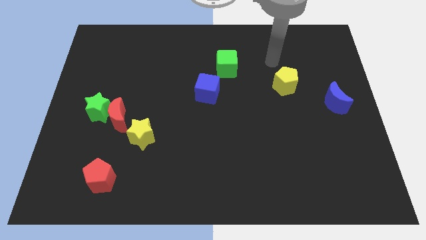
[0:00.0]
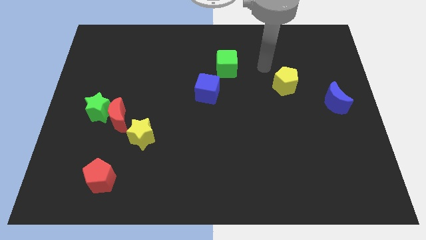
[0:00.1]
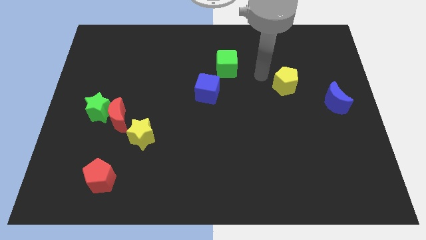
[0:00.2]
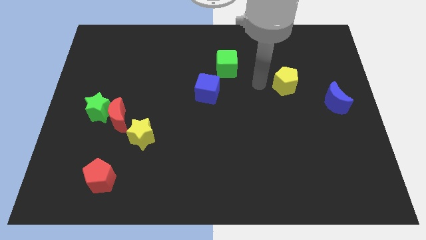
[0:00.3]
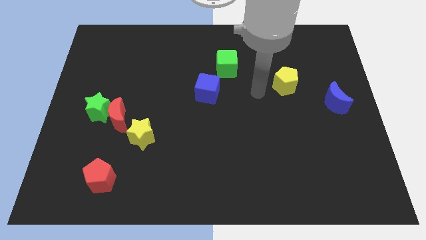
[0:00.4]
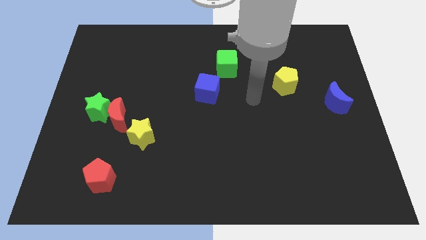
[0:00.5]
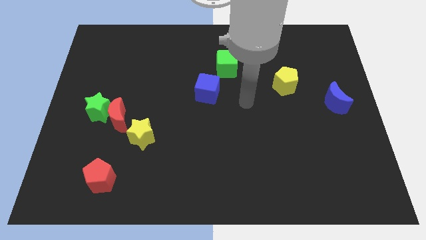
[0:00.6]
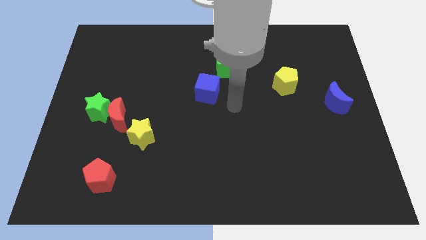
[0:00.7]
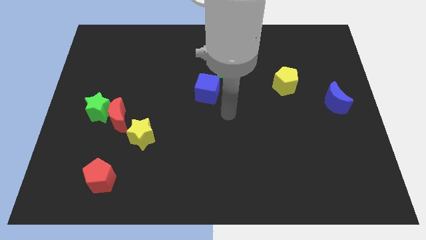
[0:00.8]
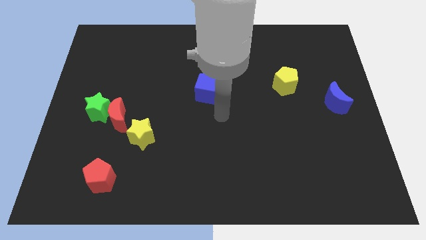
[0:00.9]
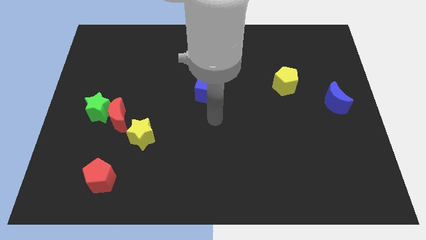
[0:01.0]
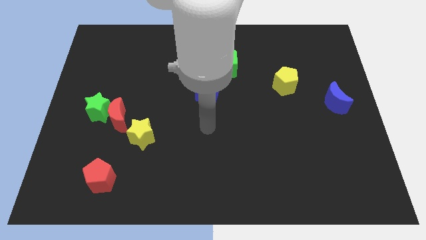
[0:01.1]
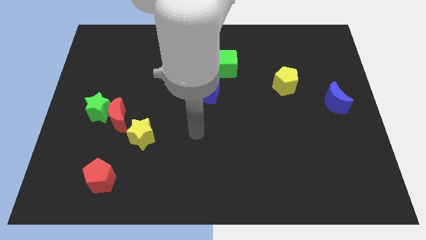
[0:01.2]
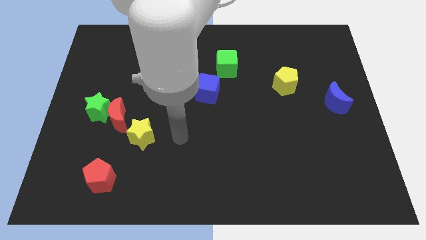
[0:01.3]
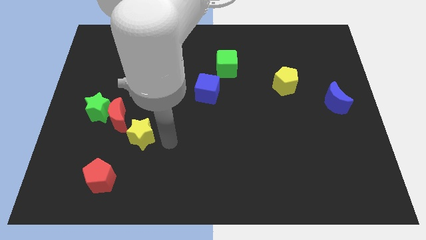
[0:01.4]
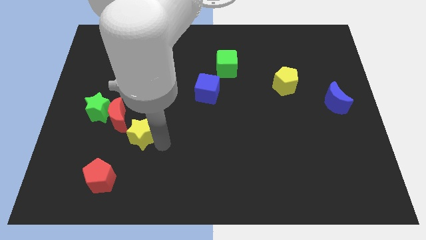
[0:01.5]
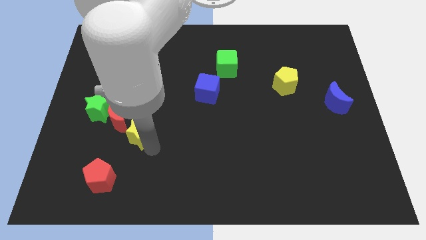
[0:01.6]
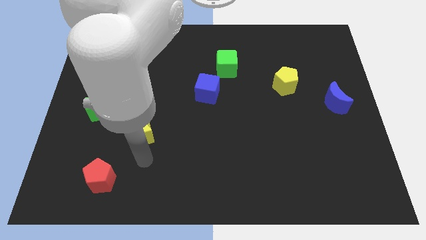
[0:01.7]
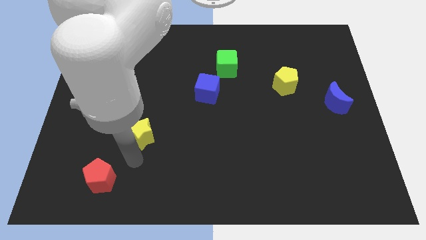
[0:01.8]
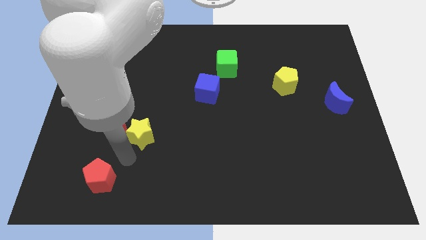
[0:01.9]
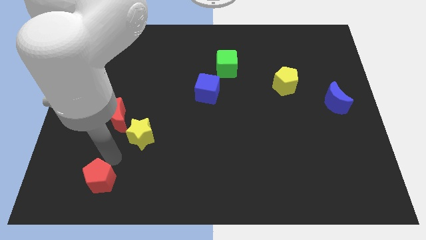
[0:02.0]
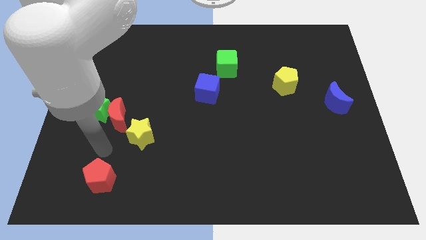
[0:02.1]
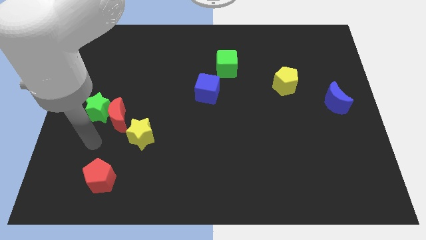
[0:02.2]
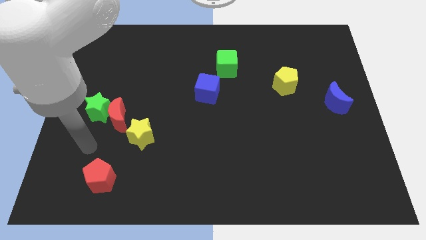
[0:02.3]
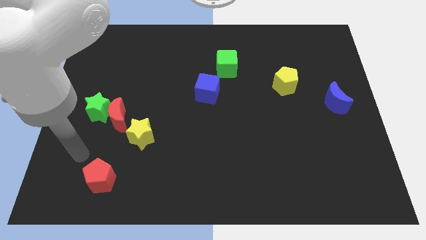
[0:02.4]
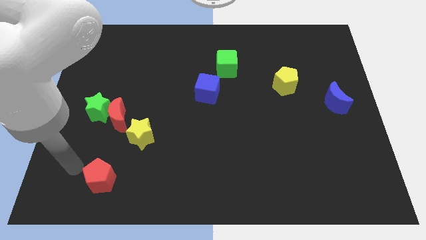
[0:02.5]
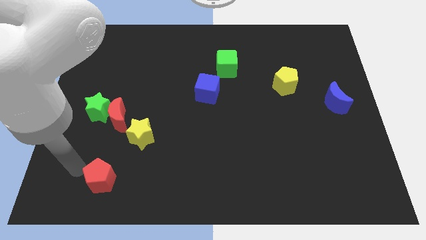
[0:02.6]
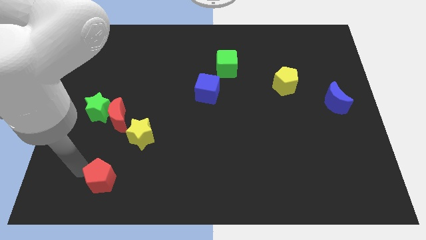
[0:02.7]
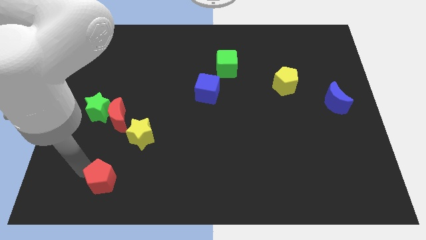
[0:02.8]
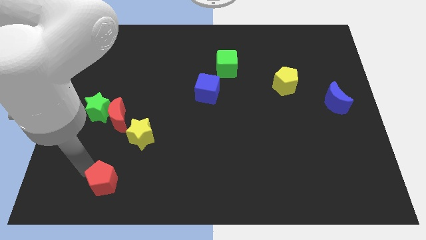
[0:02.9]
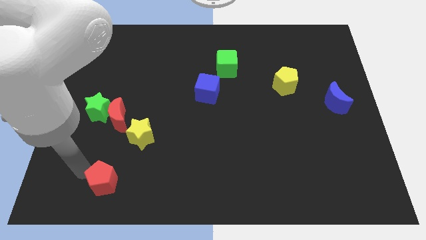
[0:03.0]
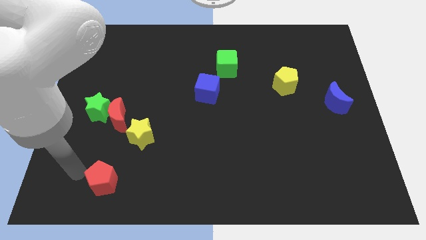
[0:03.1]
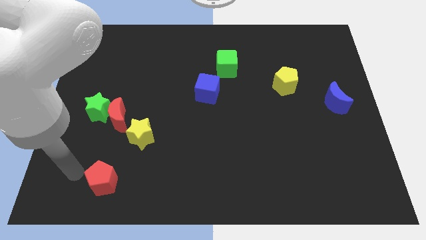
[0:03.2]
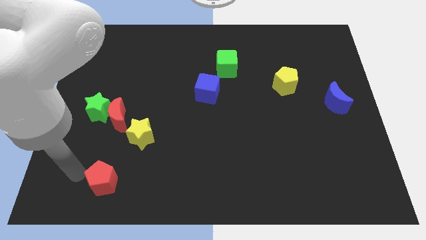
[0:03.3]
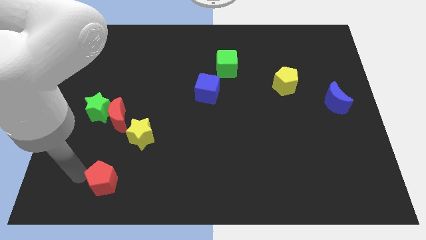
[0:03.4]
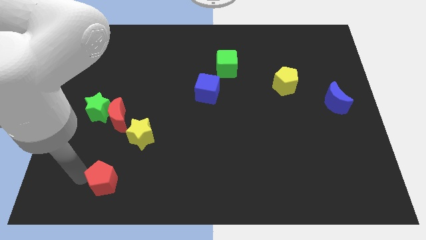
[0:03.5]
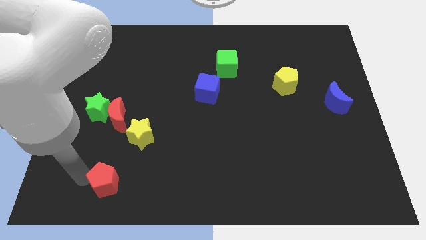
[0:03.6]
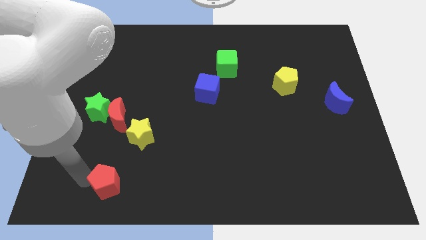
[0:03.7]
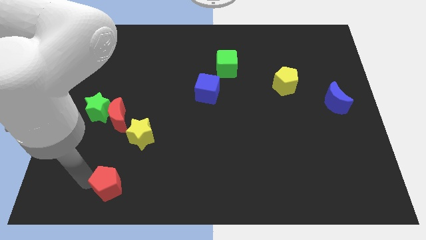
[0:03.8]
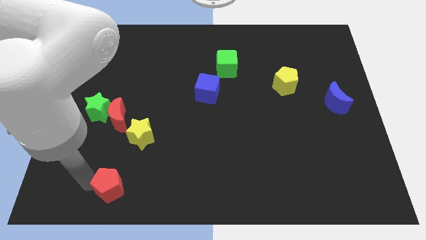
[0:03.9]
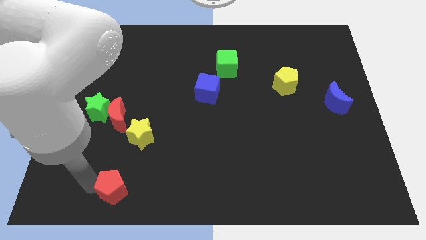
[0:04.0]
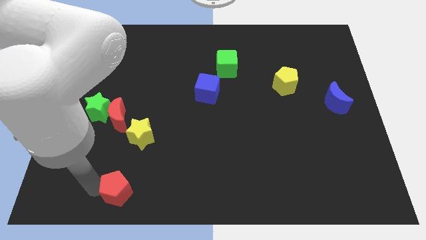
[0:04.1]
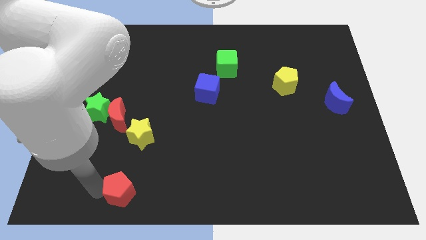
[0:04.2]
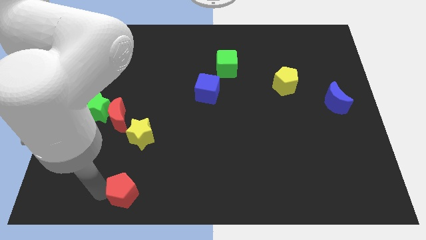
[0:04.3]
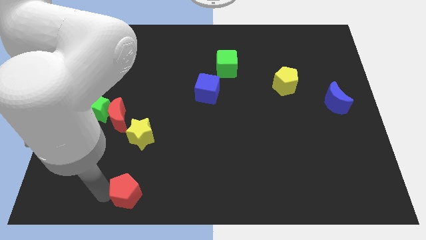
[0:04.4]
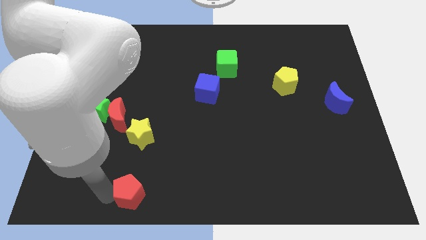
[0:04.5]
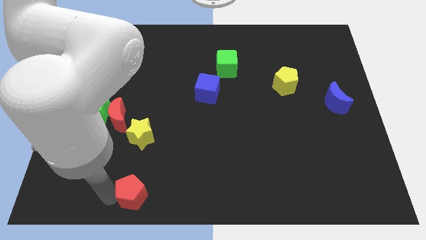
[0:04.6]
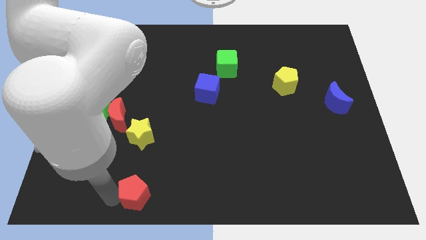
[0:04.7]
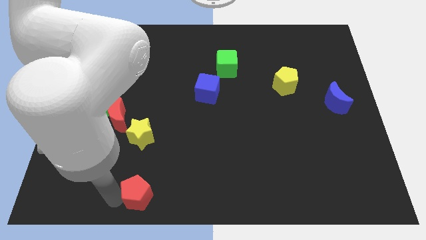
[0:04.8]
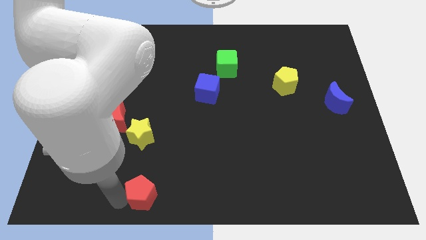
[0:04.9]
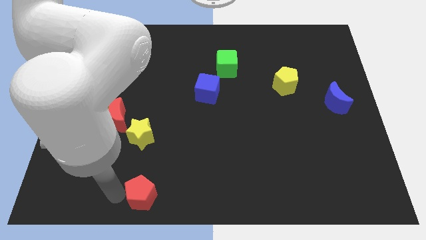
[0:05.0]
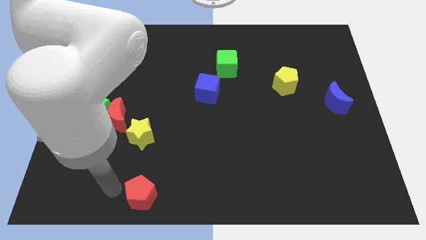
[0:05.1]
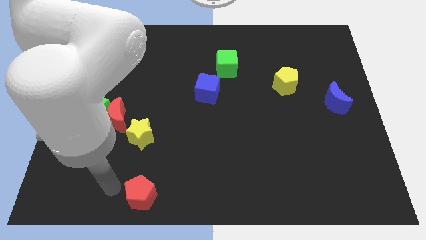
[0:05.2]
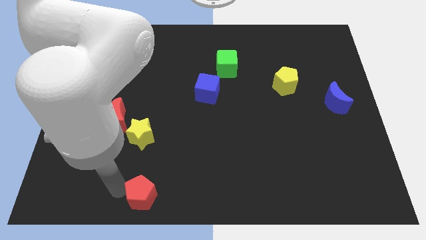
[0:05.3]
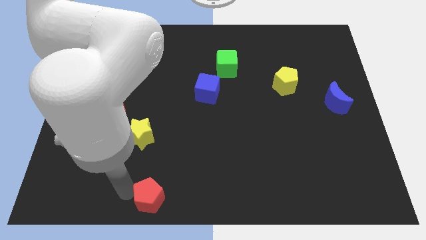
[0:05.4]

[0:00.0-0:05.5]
slide the red pentagon to the bottom side

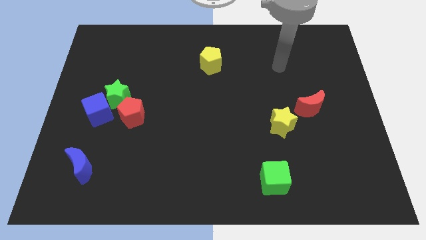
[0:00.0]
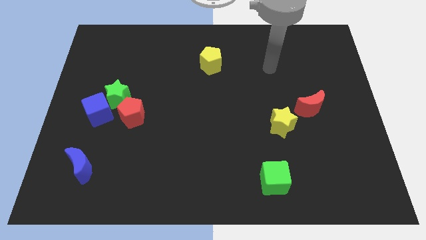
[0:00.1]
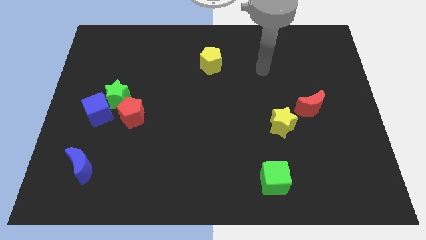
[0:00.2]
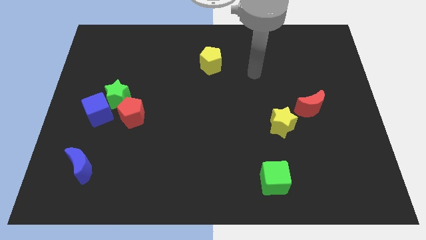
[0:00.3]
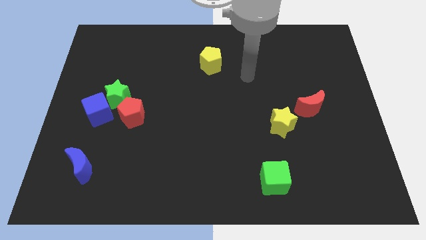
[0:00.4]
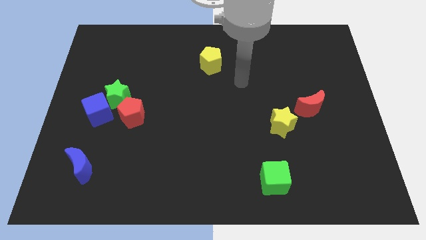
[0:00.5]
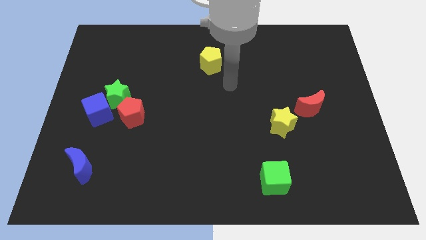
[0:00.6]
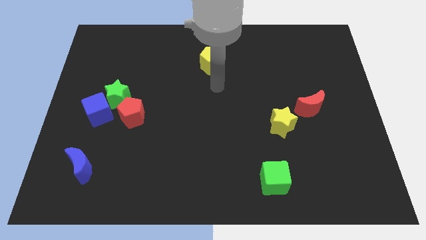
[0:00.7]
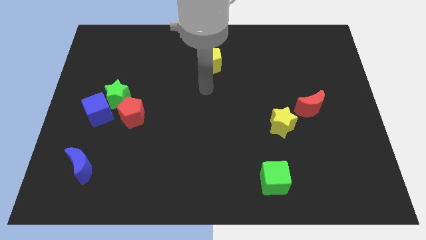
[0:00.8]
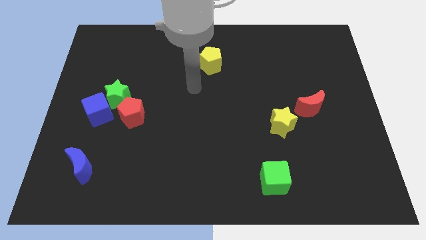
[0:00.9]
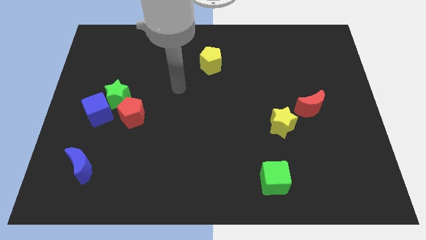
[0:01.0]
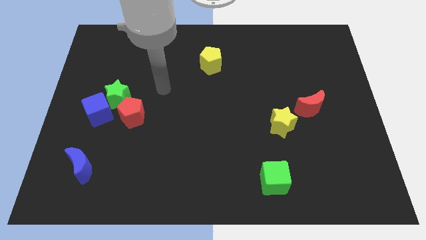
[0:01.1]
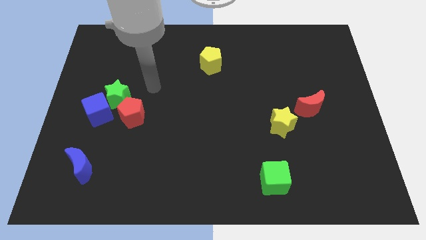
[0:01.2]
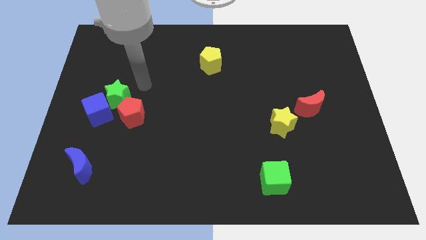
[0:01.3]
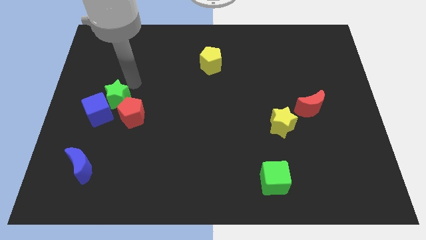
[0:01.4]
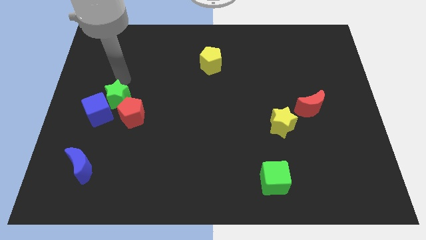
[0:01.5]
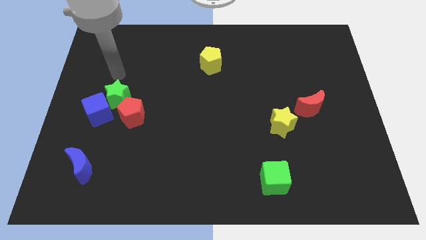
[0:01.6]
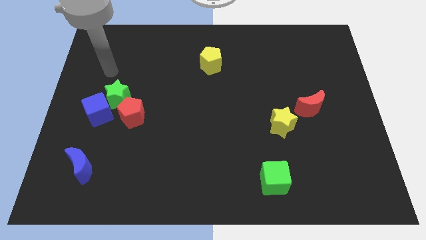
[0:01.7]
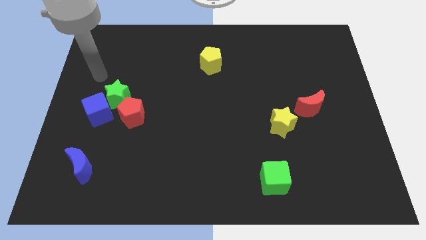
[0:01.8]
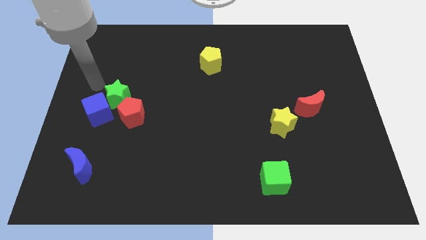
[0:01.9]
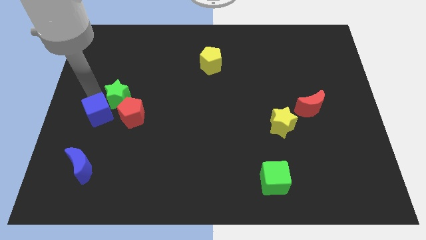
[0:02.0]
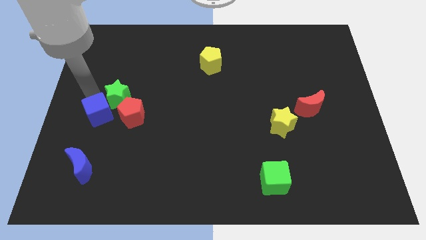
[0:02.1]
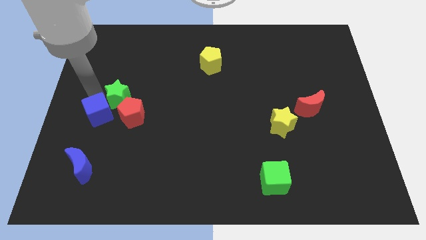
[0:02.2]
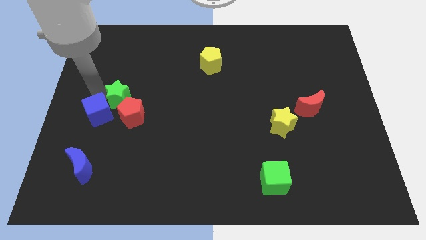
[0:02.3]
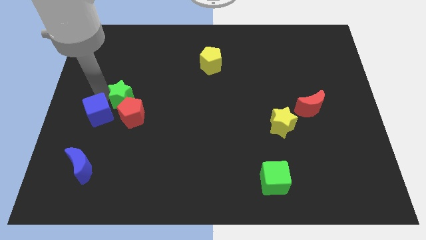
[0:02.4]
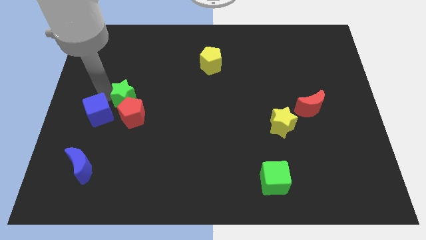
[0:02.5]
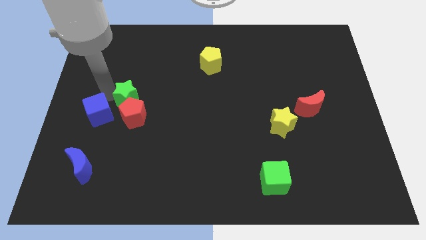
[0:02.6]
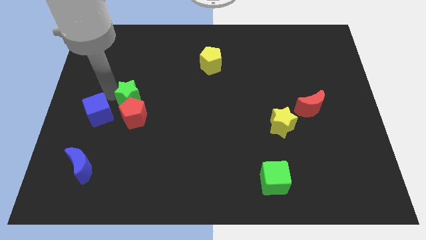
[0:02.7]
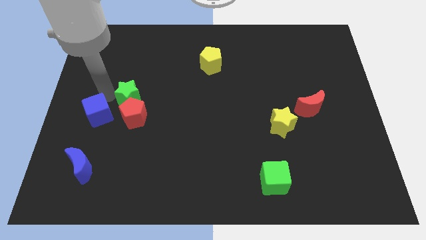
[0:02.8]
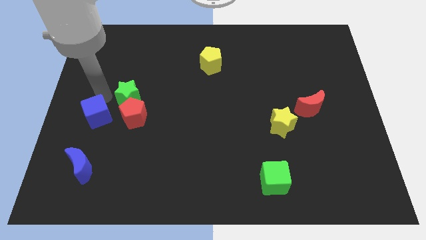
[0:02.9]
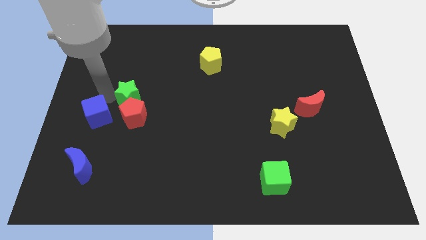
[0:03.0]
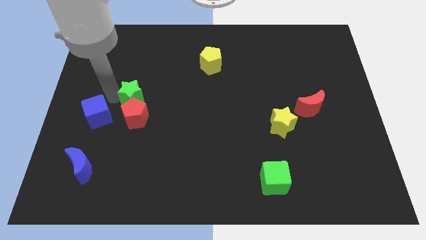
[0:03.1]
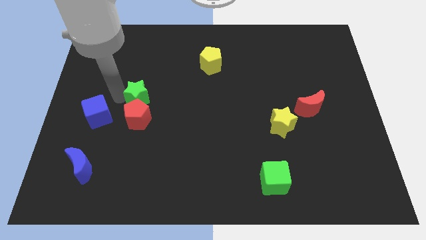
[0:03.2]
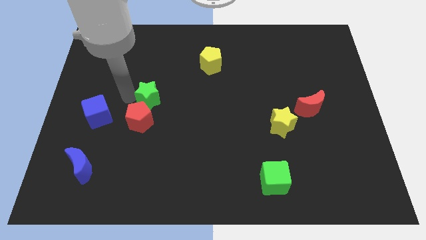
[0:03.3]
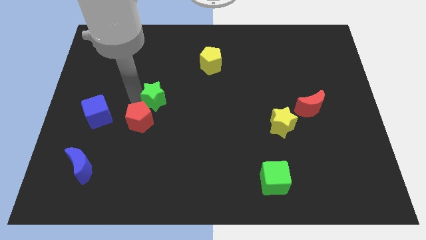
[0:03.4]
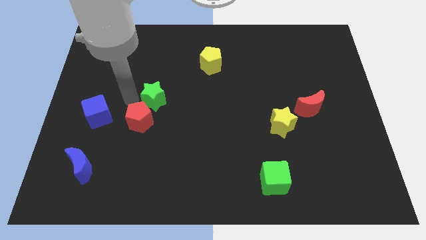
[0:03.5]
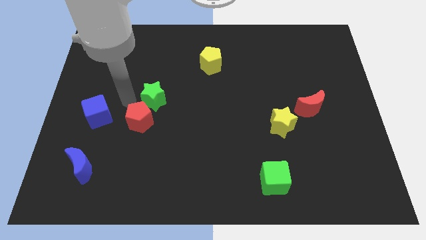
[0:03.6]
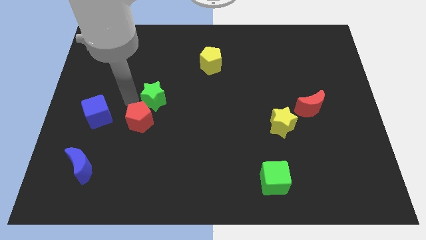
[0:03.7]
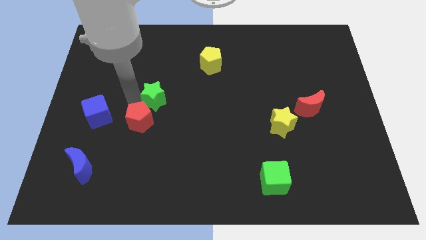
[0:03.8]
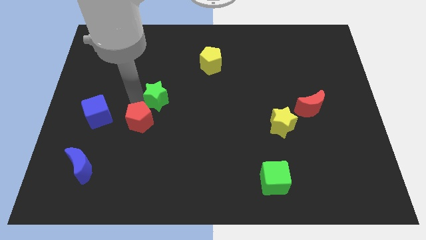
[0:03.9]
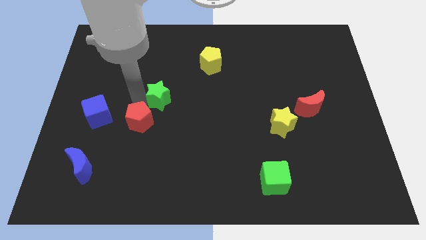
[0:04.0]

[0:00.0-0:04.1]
slide the green star to the center of the board
